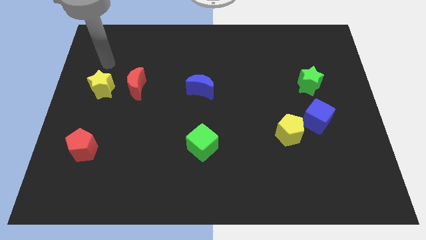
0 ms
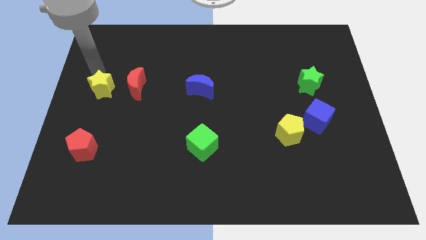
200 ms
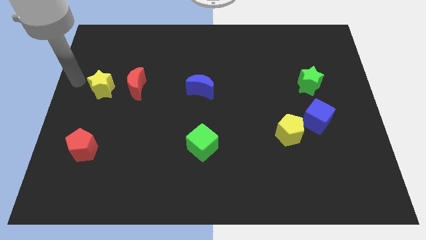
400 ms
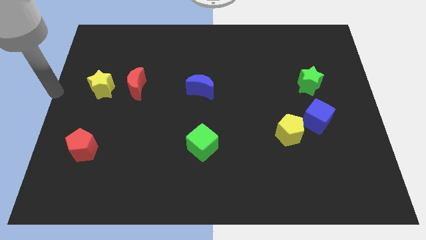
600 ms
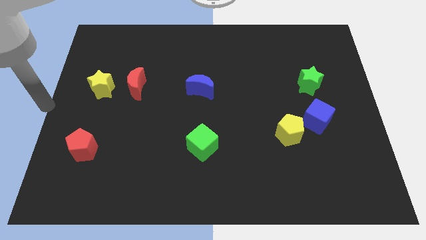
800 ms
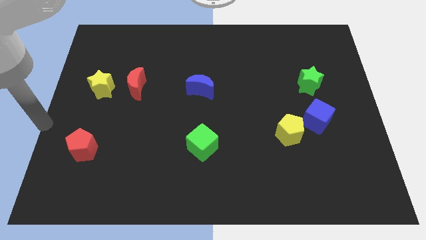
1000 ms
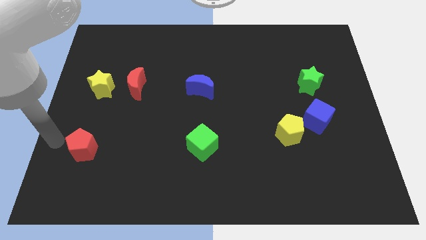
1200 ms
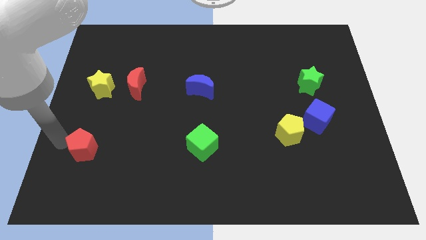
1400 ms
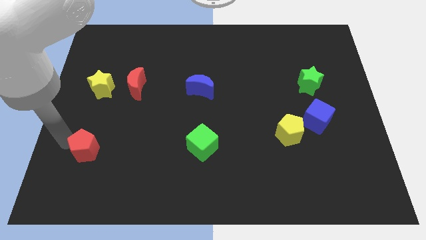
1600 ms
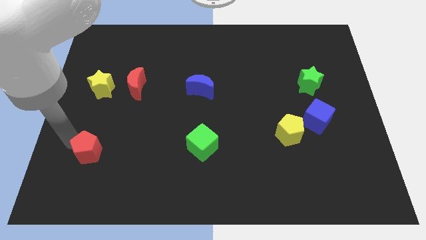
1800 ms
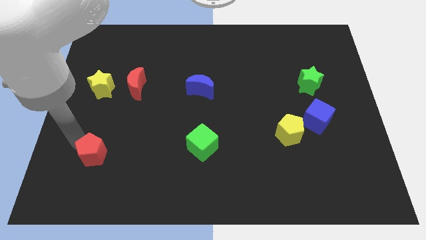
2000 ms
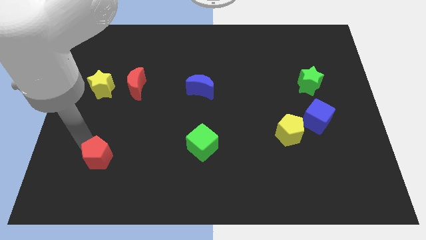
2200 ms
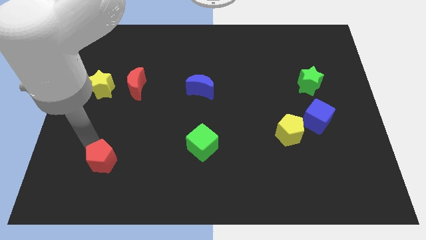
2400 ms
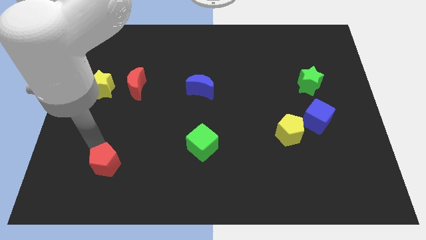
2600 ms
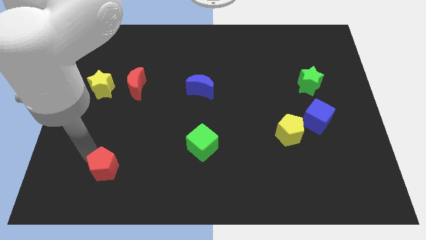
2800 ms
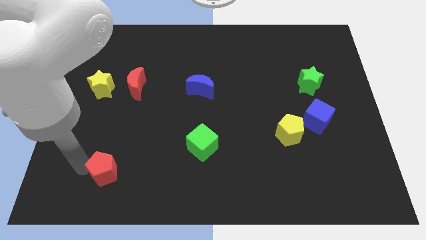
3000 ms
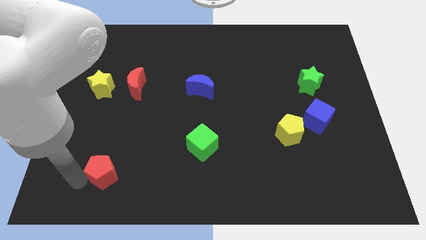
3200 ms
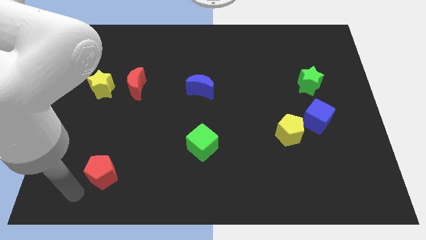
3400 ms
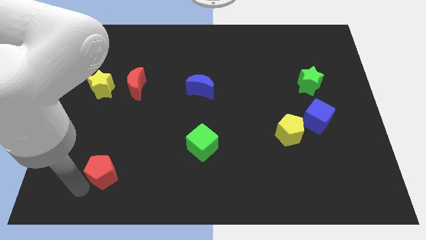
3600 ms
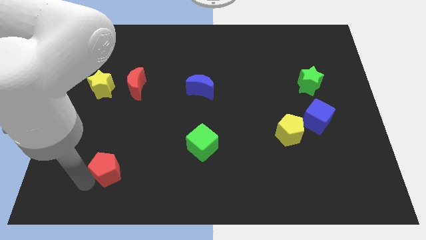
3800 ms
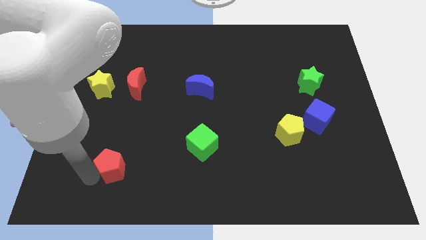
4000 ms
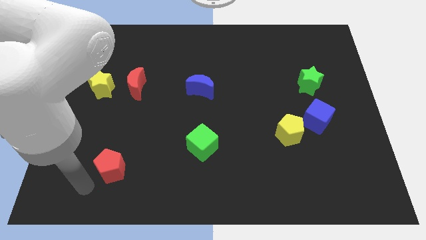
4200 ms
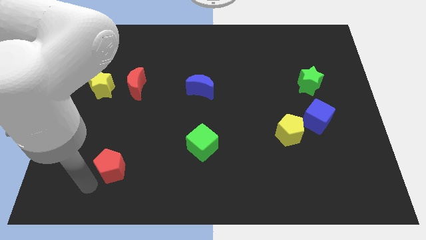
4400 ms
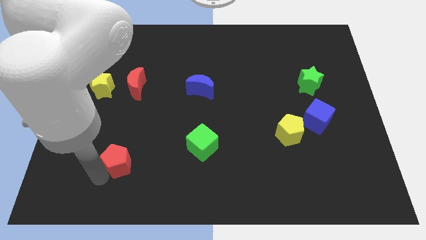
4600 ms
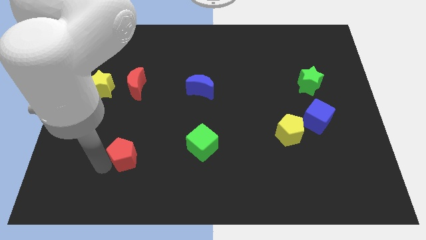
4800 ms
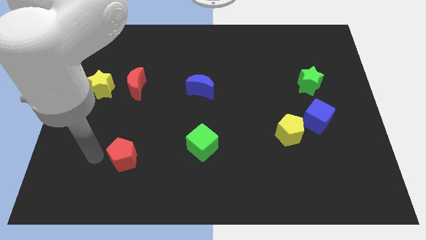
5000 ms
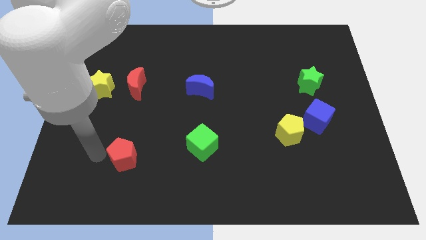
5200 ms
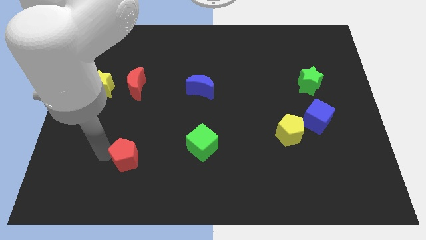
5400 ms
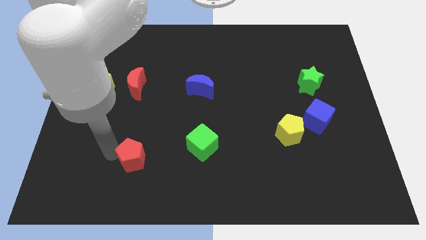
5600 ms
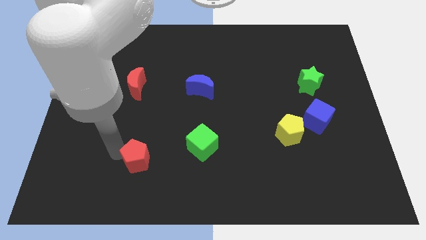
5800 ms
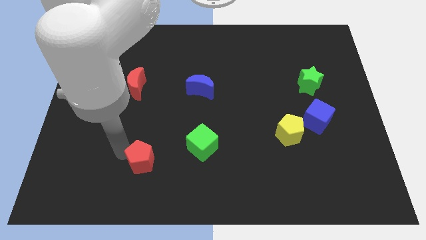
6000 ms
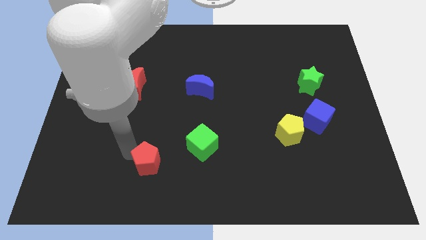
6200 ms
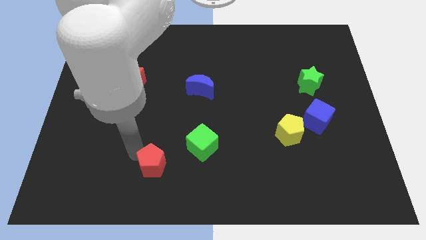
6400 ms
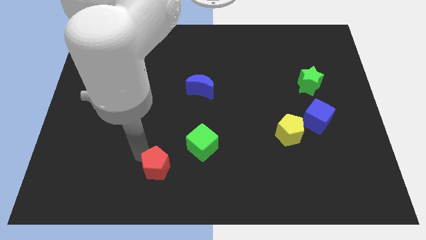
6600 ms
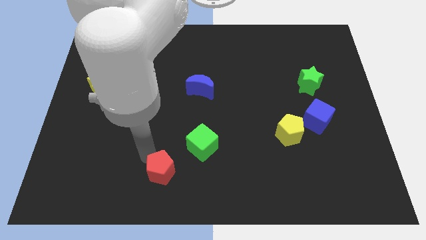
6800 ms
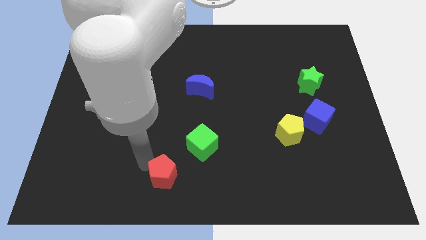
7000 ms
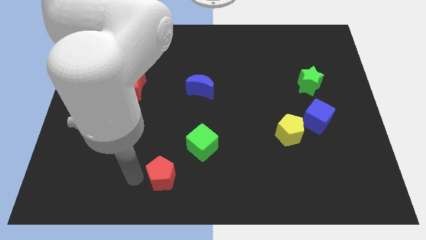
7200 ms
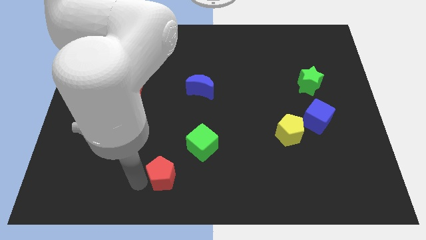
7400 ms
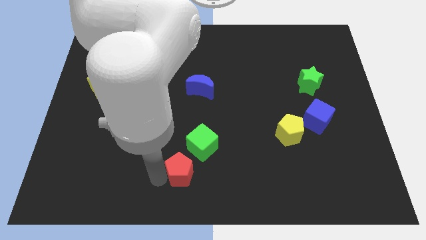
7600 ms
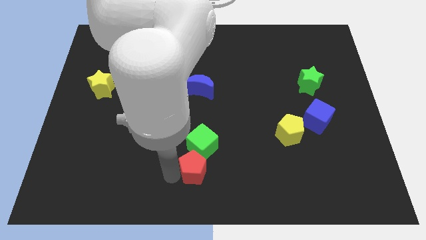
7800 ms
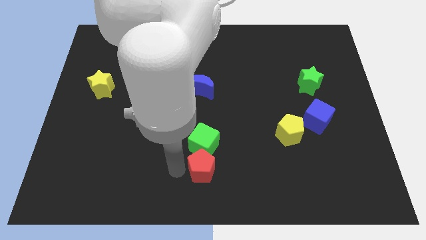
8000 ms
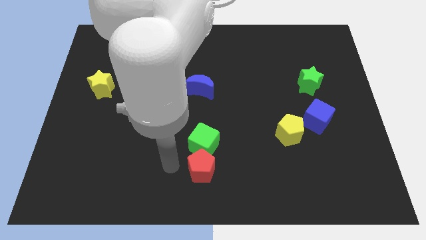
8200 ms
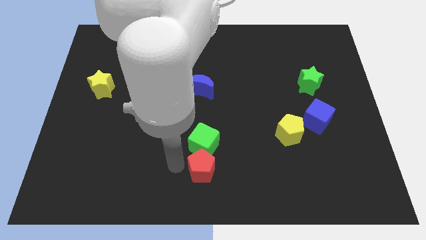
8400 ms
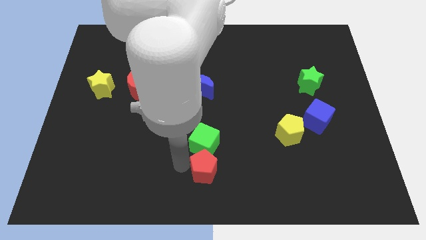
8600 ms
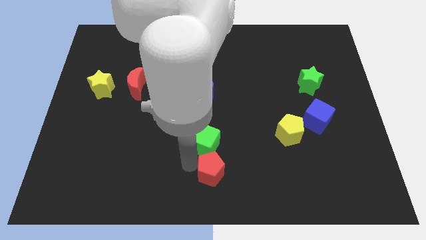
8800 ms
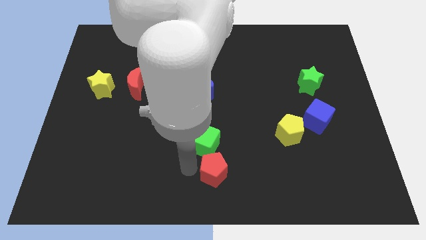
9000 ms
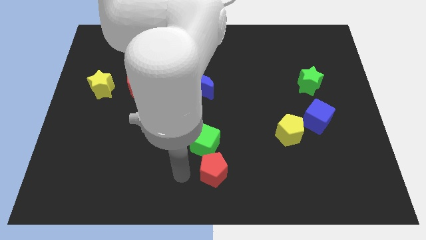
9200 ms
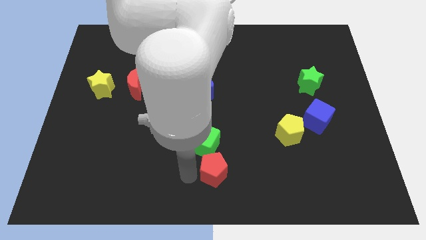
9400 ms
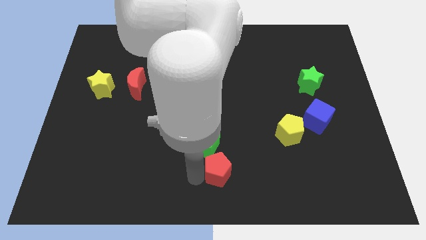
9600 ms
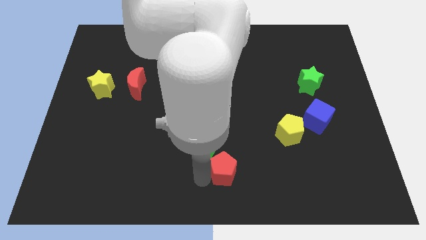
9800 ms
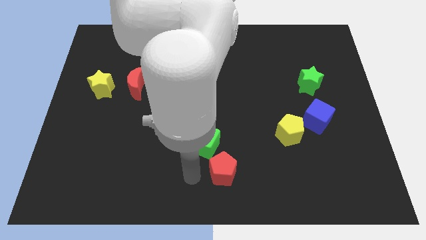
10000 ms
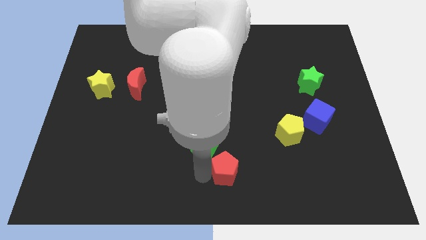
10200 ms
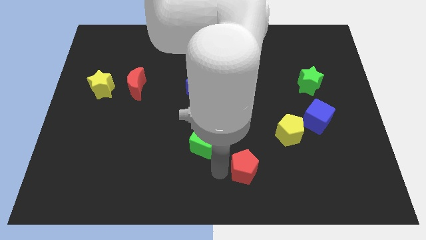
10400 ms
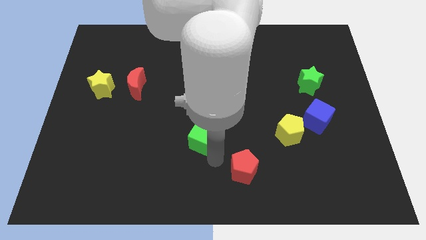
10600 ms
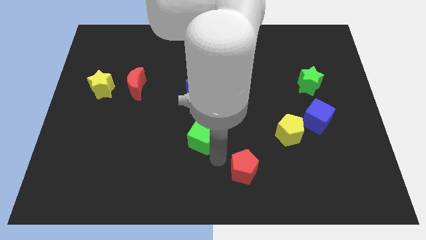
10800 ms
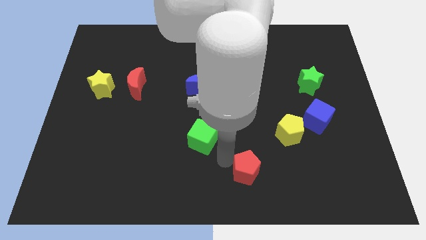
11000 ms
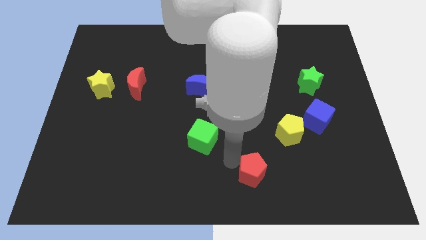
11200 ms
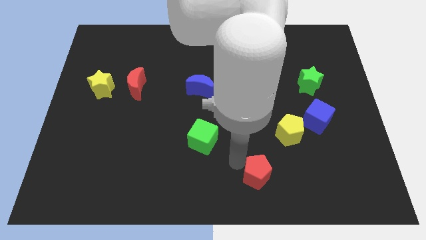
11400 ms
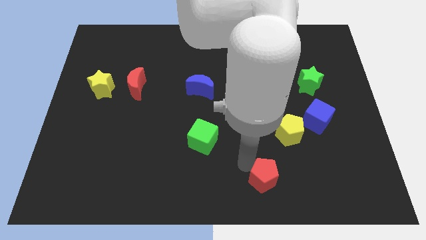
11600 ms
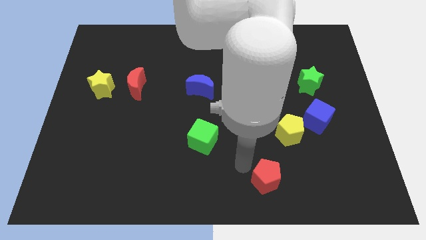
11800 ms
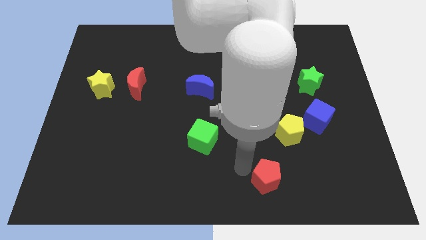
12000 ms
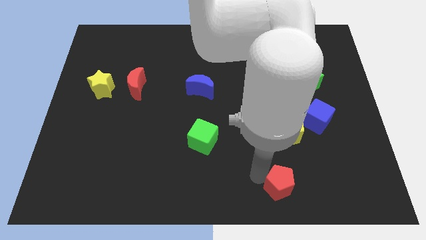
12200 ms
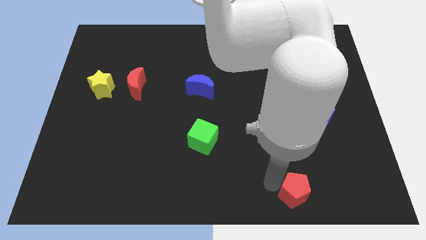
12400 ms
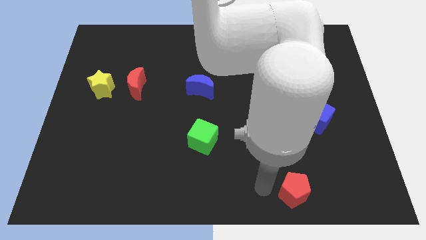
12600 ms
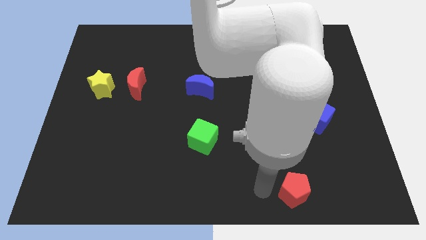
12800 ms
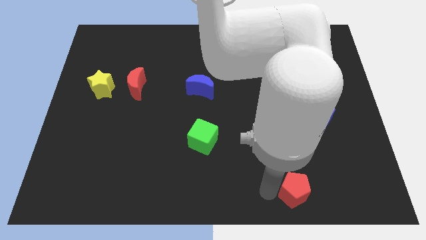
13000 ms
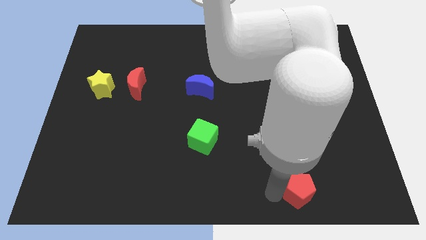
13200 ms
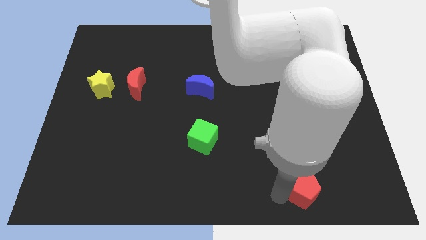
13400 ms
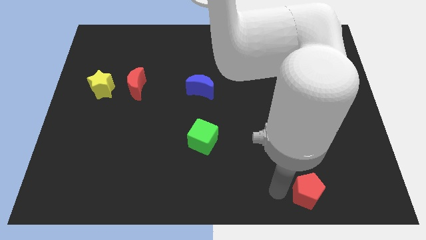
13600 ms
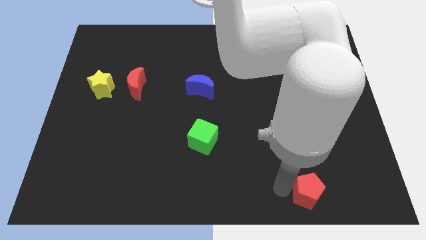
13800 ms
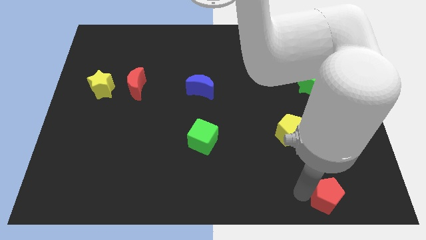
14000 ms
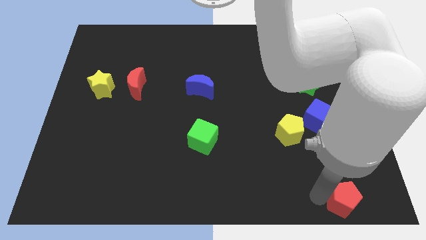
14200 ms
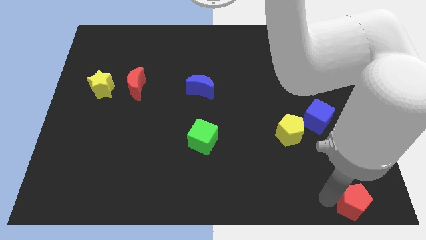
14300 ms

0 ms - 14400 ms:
slide the red pentagon to the lower right corner
